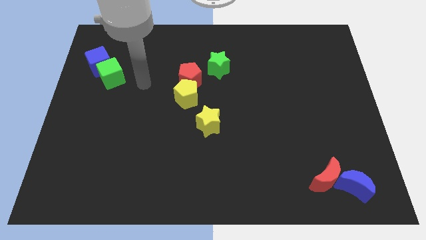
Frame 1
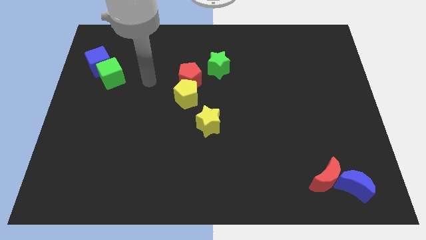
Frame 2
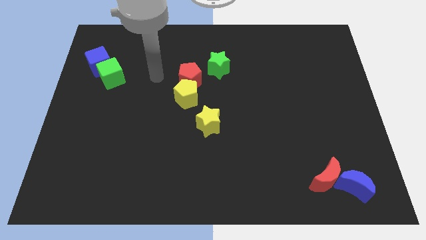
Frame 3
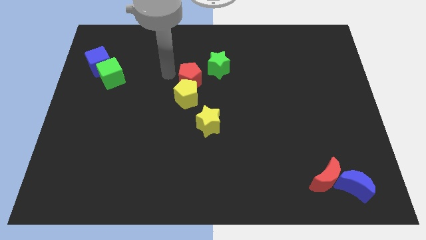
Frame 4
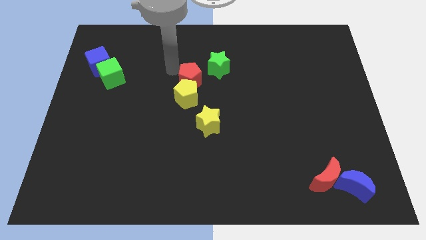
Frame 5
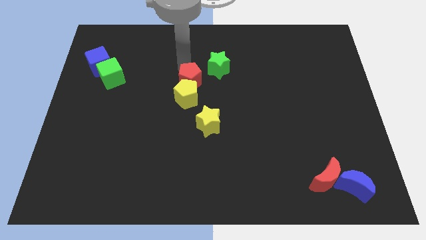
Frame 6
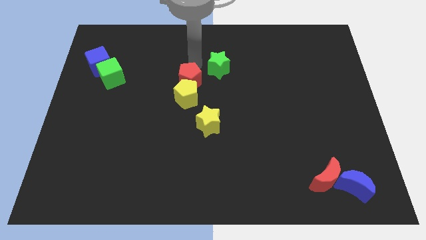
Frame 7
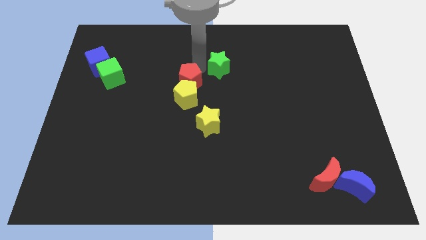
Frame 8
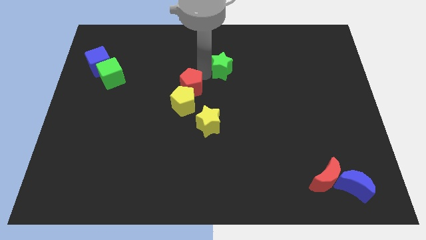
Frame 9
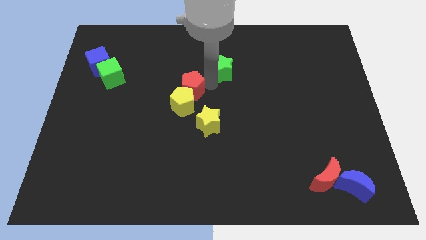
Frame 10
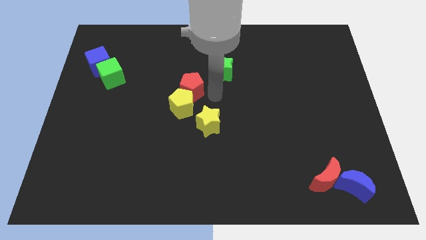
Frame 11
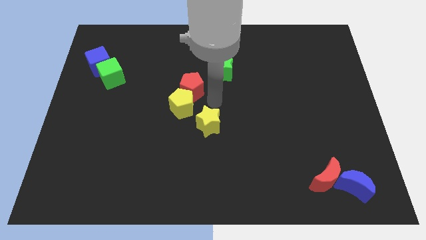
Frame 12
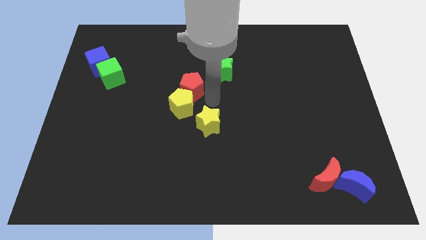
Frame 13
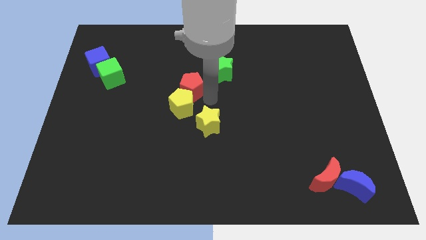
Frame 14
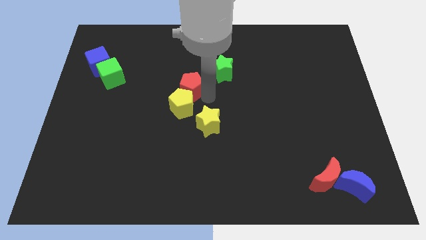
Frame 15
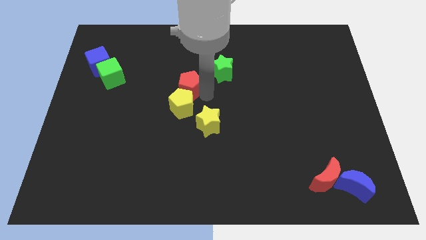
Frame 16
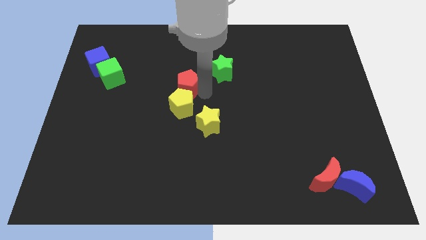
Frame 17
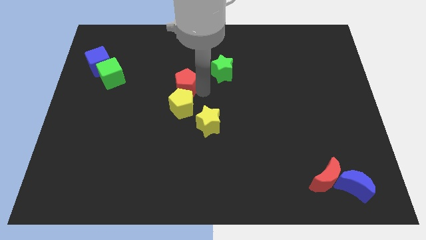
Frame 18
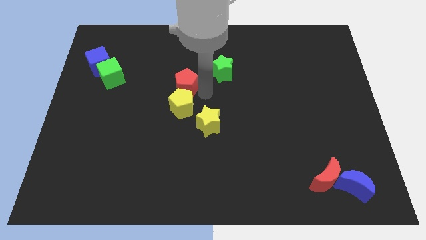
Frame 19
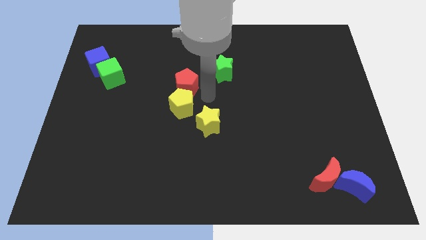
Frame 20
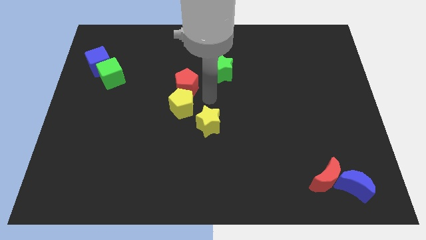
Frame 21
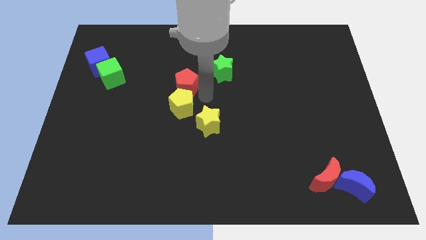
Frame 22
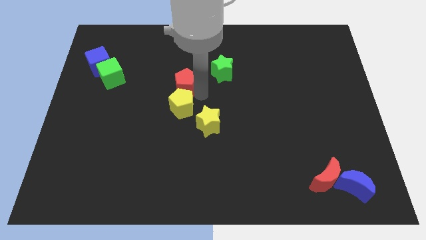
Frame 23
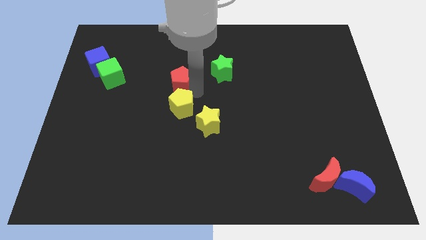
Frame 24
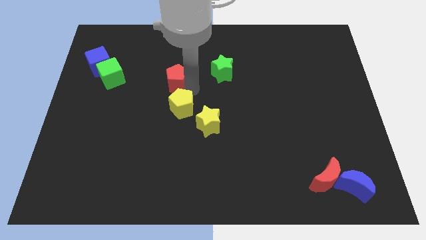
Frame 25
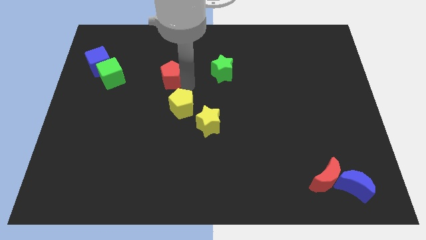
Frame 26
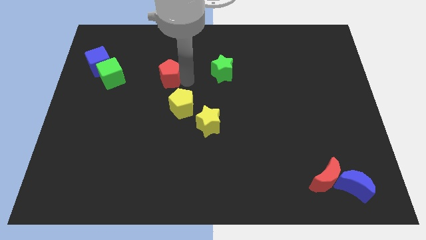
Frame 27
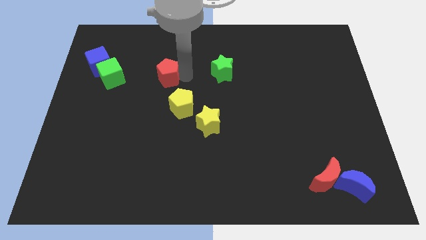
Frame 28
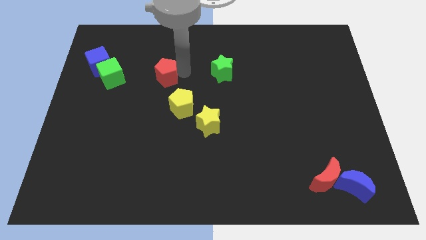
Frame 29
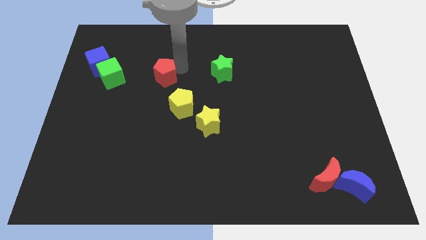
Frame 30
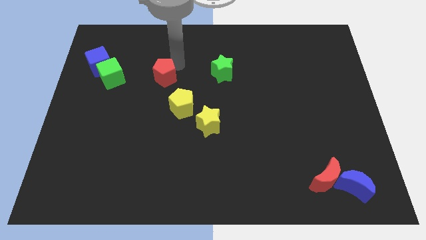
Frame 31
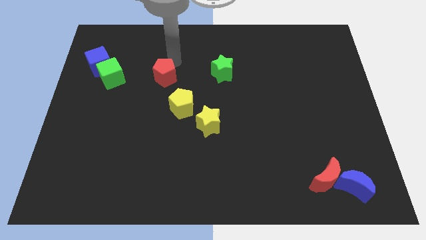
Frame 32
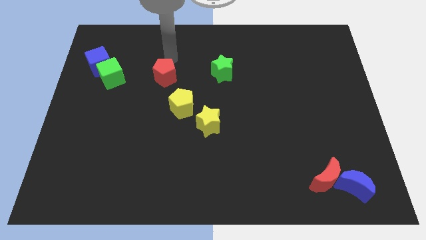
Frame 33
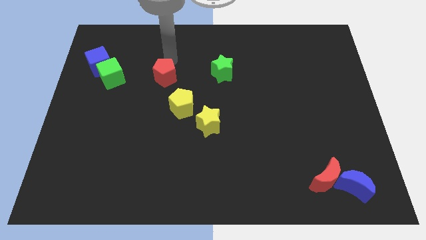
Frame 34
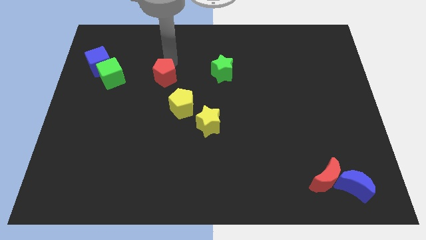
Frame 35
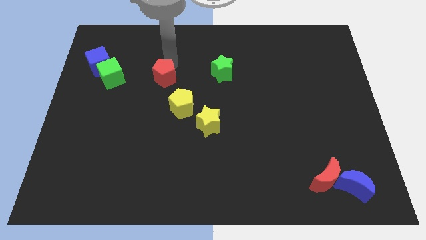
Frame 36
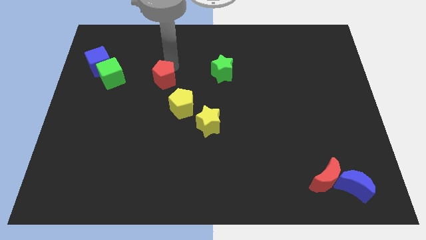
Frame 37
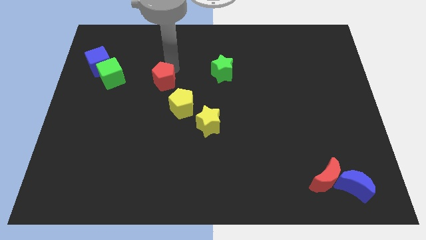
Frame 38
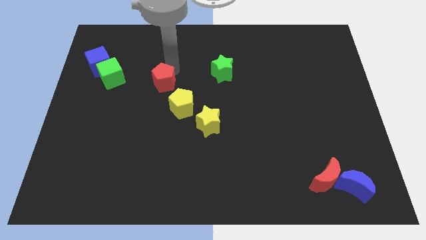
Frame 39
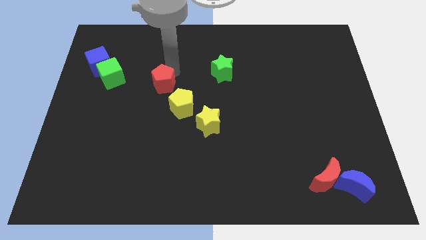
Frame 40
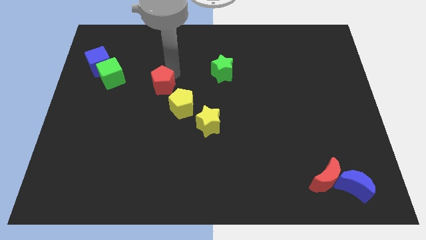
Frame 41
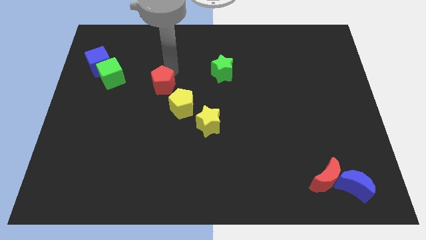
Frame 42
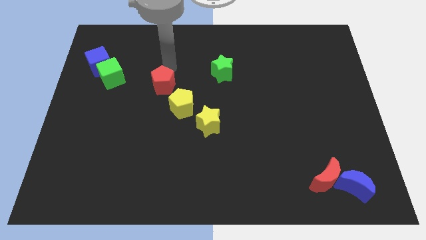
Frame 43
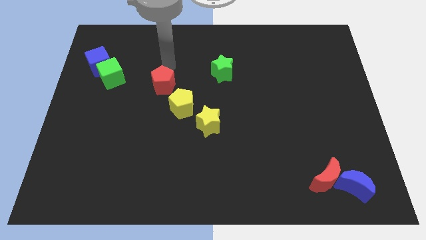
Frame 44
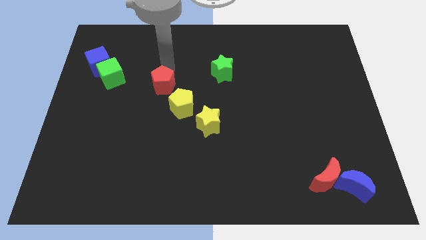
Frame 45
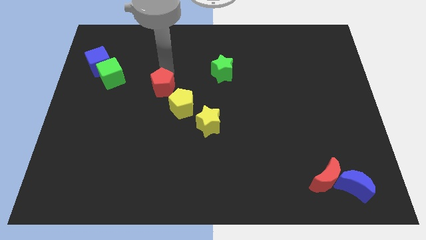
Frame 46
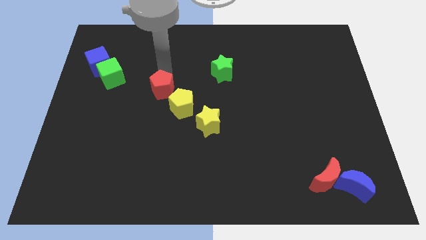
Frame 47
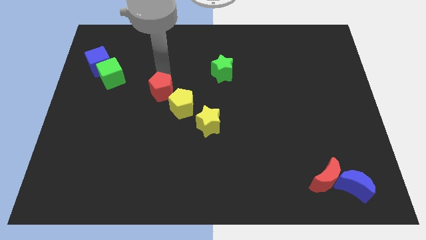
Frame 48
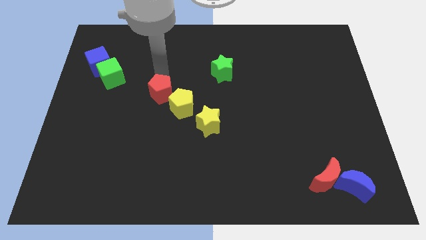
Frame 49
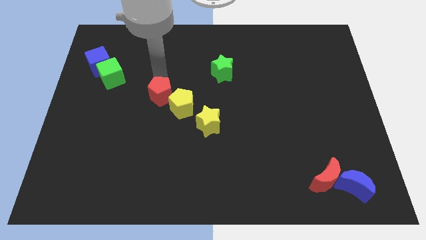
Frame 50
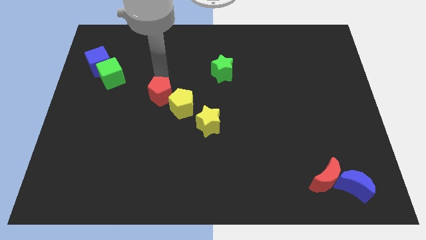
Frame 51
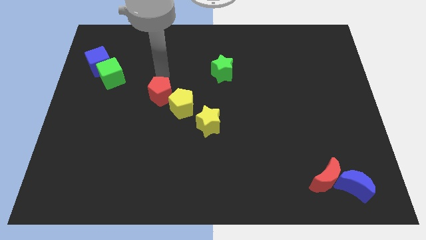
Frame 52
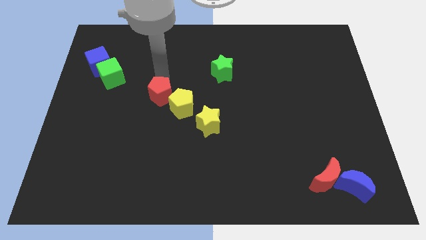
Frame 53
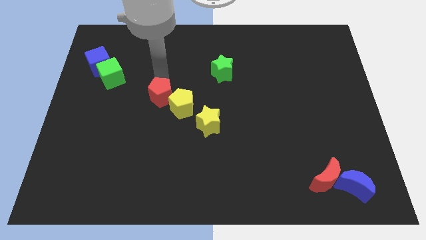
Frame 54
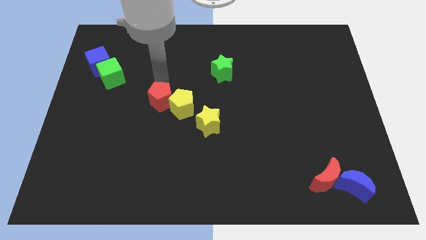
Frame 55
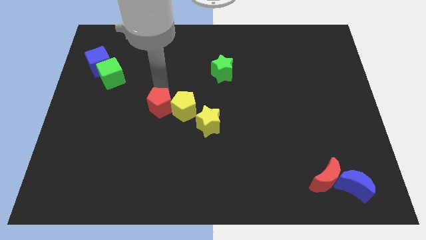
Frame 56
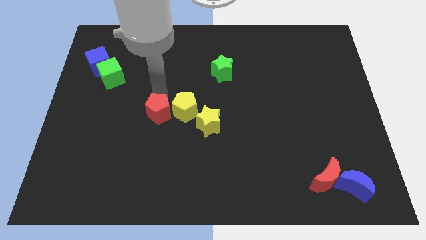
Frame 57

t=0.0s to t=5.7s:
push the red pentagon a little down

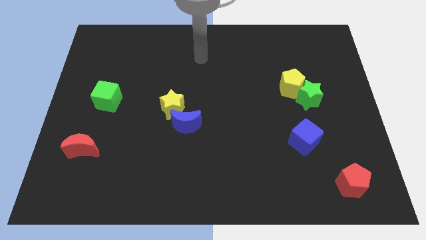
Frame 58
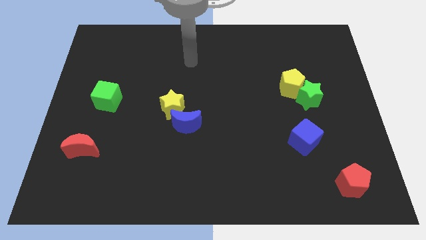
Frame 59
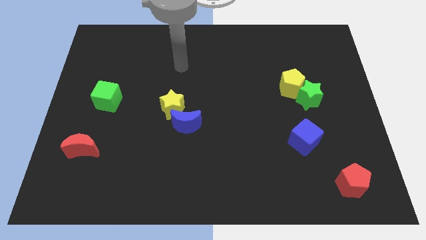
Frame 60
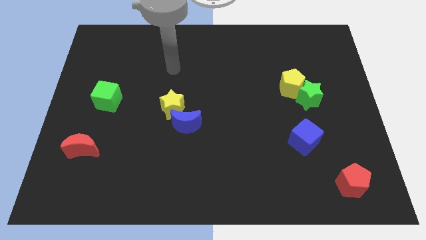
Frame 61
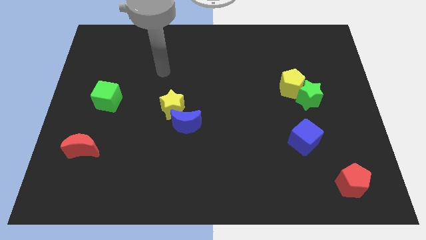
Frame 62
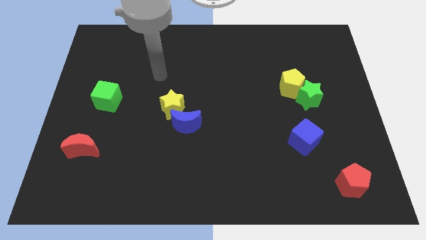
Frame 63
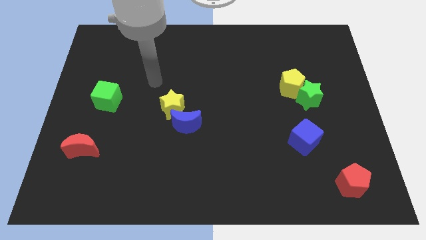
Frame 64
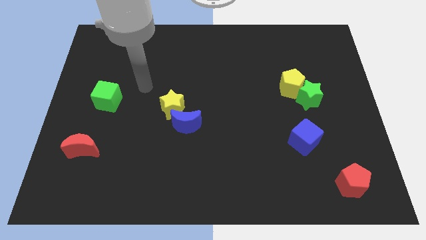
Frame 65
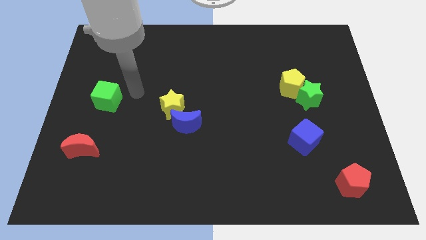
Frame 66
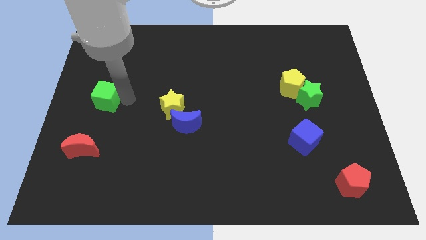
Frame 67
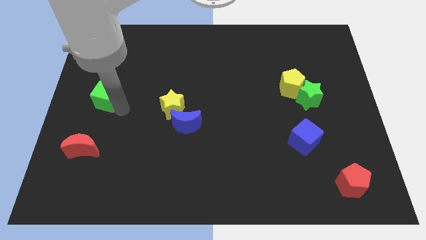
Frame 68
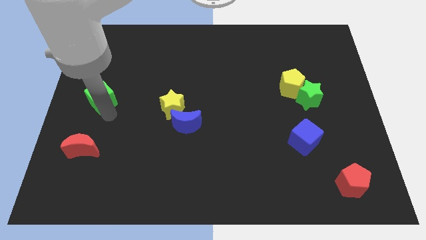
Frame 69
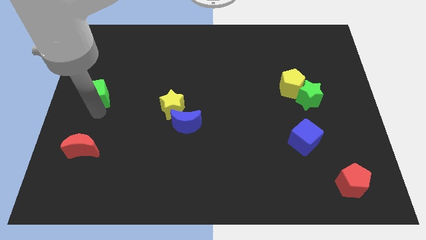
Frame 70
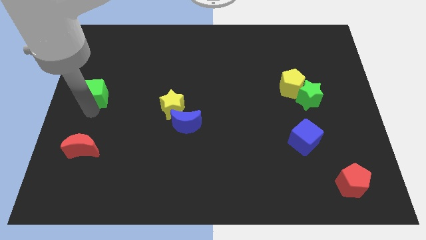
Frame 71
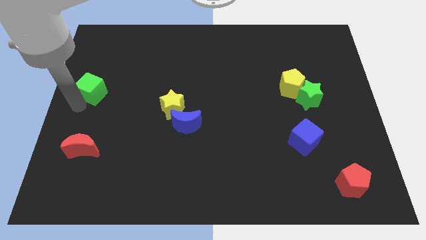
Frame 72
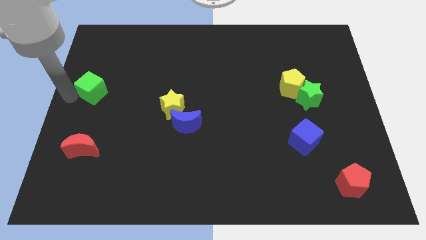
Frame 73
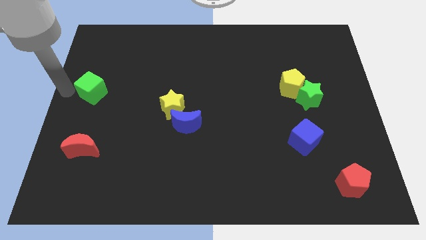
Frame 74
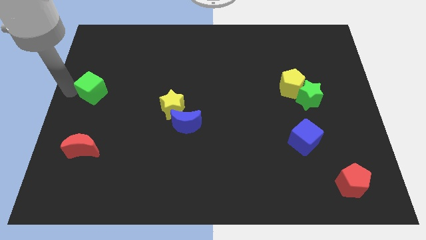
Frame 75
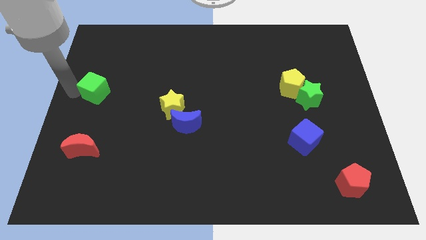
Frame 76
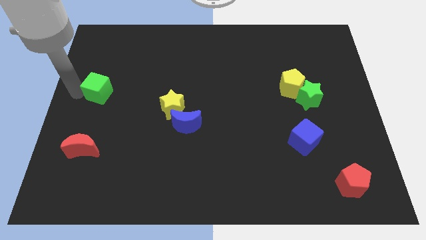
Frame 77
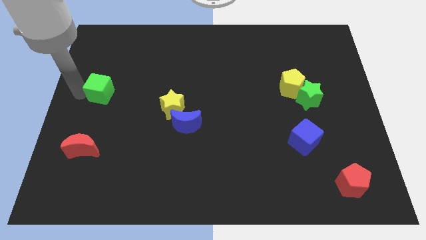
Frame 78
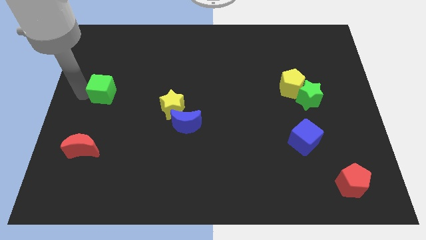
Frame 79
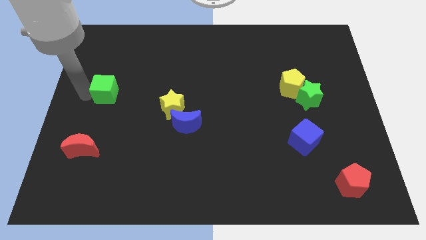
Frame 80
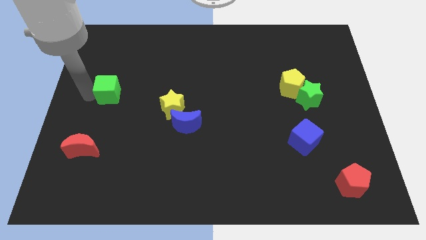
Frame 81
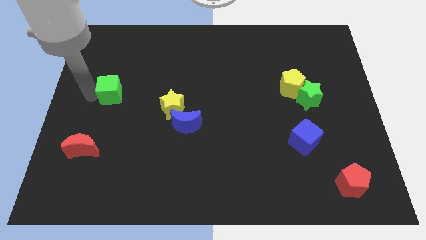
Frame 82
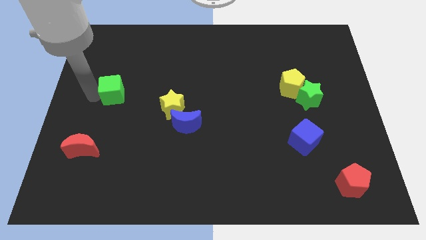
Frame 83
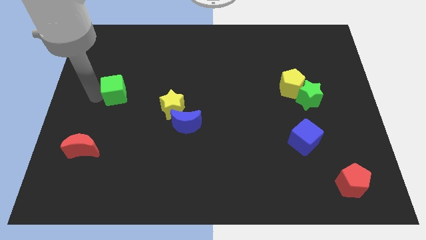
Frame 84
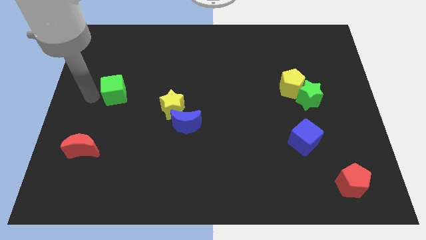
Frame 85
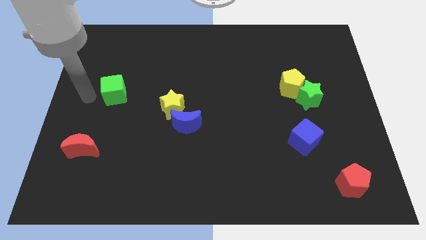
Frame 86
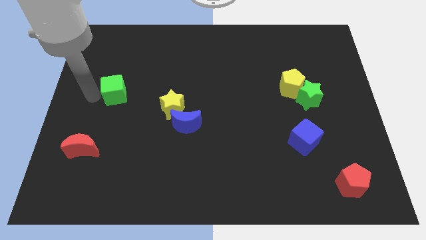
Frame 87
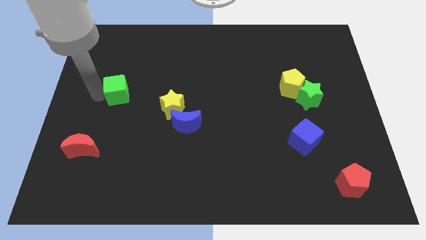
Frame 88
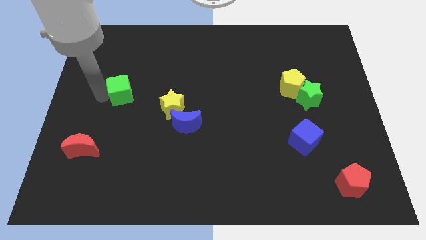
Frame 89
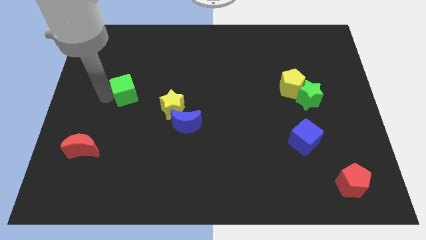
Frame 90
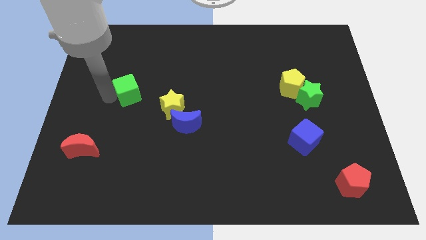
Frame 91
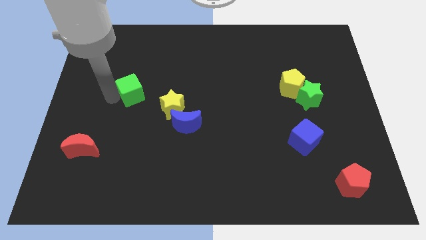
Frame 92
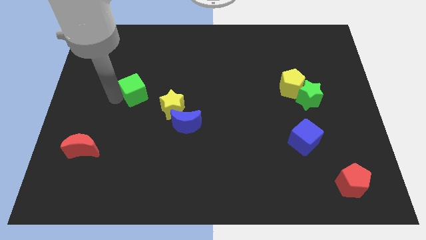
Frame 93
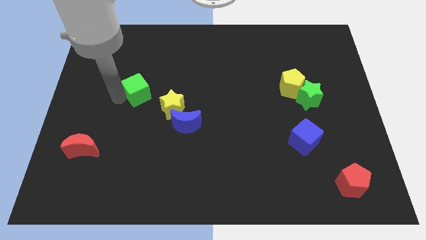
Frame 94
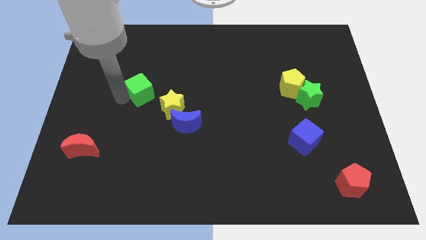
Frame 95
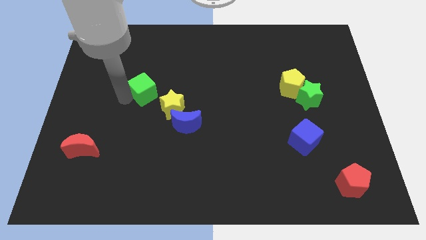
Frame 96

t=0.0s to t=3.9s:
push the green cube a little bit up and right
